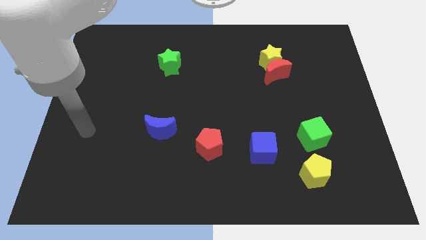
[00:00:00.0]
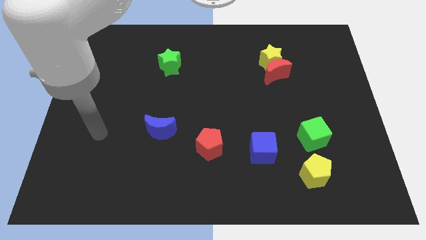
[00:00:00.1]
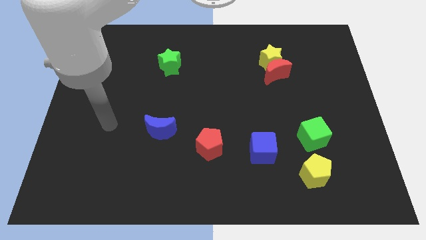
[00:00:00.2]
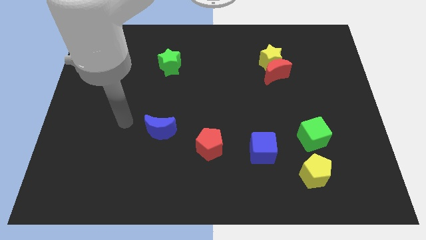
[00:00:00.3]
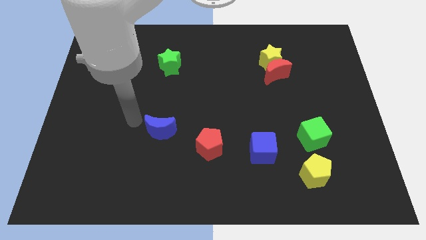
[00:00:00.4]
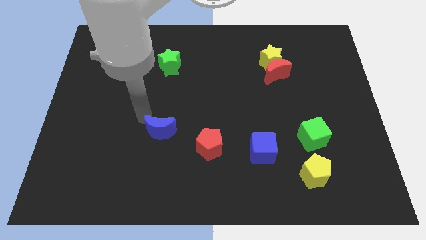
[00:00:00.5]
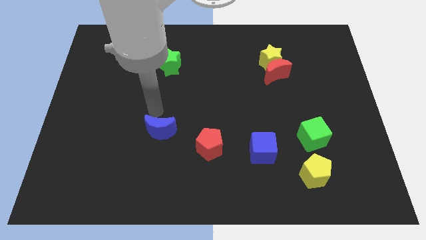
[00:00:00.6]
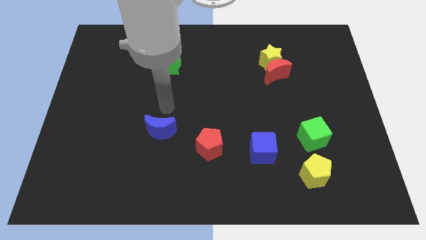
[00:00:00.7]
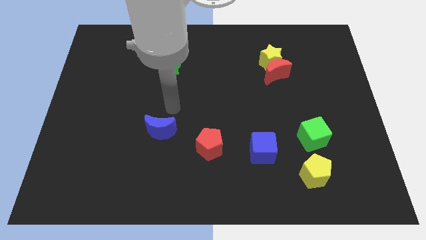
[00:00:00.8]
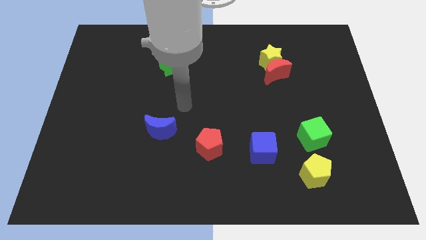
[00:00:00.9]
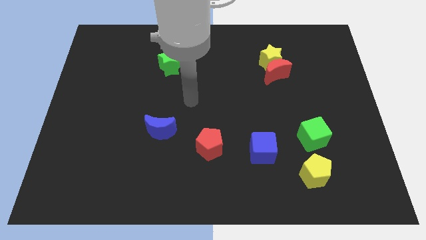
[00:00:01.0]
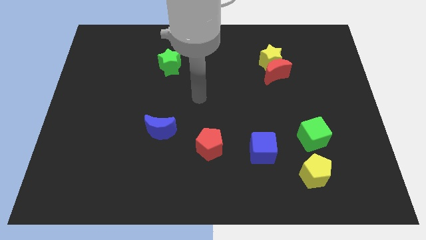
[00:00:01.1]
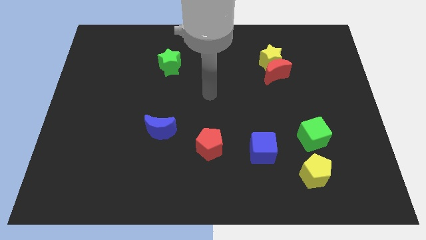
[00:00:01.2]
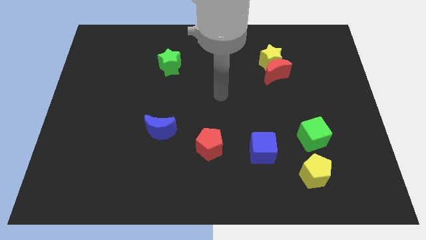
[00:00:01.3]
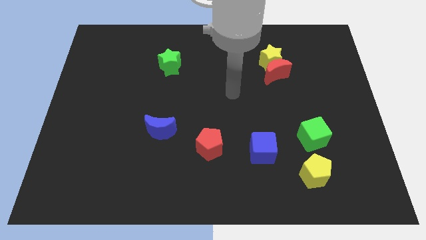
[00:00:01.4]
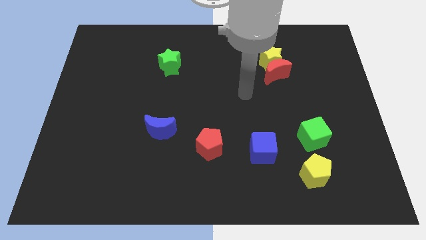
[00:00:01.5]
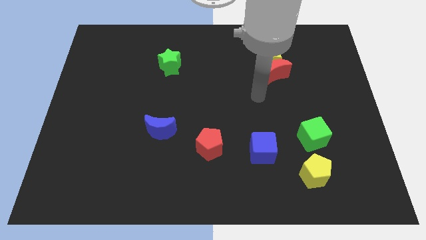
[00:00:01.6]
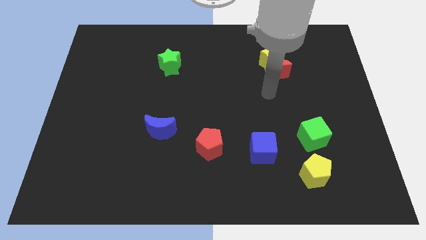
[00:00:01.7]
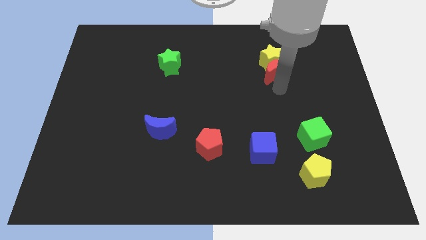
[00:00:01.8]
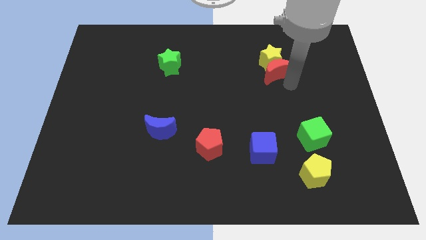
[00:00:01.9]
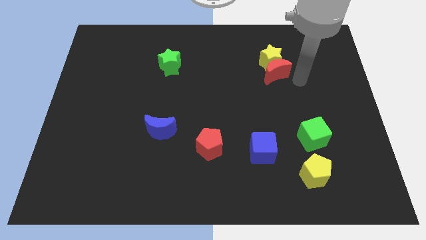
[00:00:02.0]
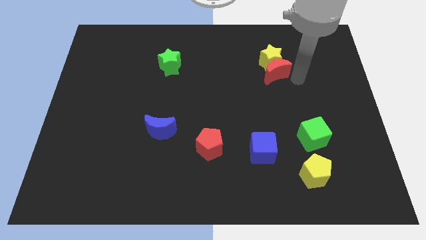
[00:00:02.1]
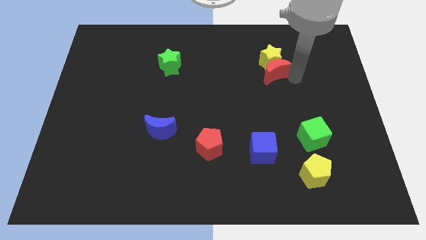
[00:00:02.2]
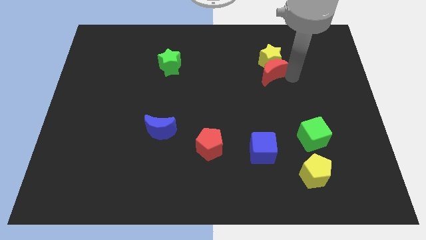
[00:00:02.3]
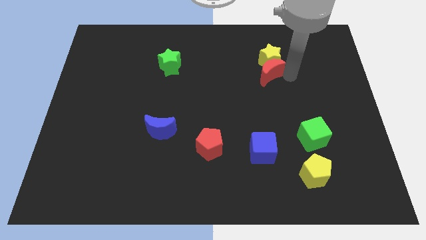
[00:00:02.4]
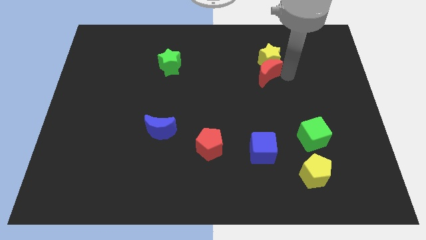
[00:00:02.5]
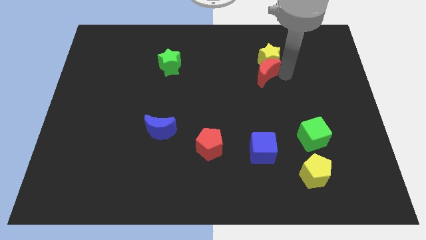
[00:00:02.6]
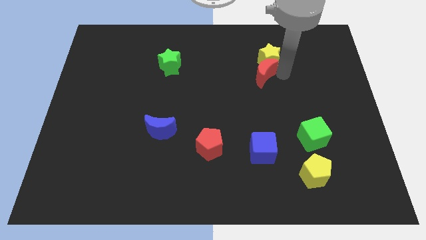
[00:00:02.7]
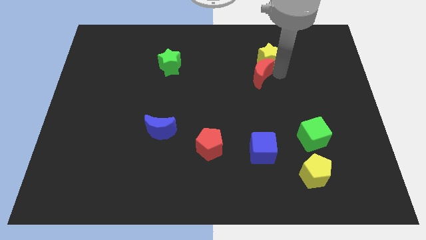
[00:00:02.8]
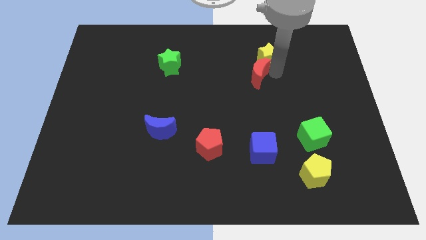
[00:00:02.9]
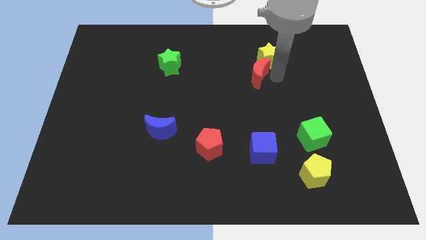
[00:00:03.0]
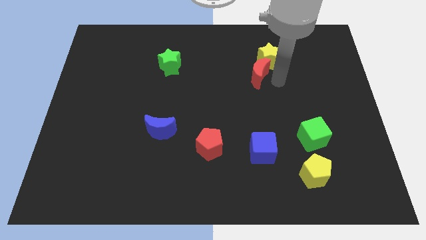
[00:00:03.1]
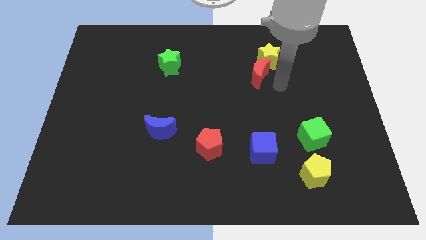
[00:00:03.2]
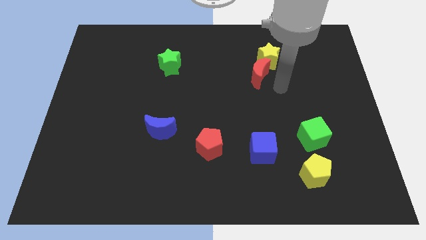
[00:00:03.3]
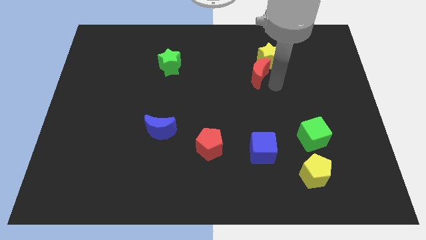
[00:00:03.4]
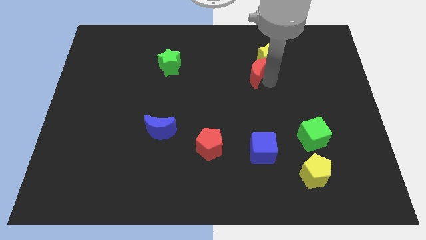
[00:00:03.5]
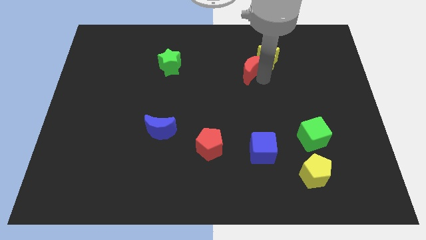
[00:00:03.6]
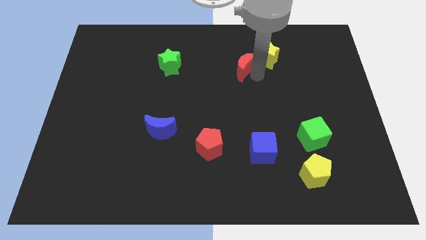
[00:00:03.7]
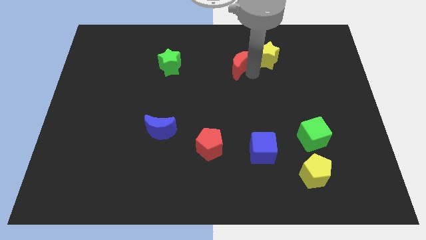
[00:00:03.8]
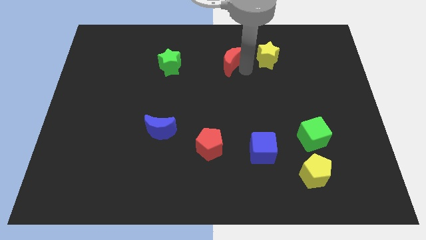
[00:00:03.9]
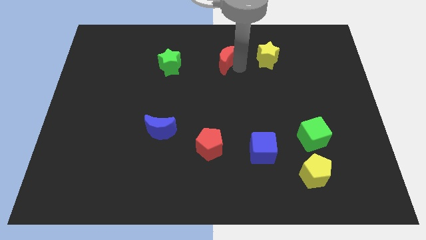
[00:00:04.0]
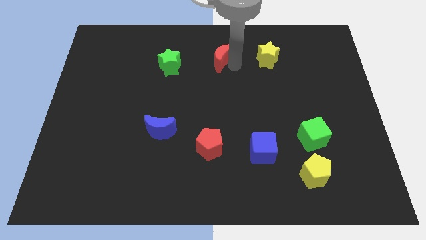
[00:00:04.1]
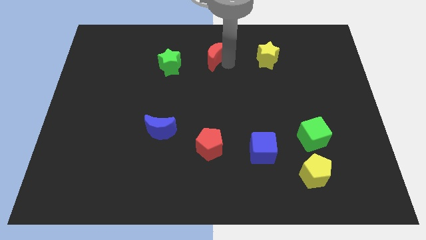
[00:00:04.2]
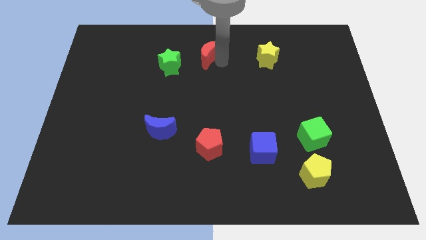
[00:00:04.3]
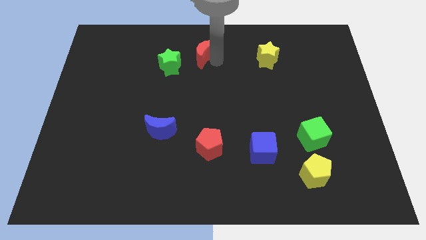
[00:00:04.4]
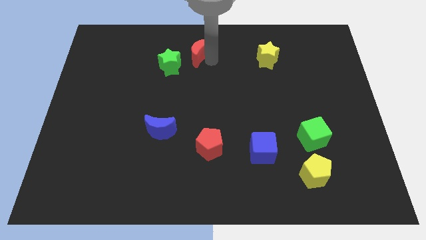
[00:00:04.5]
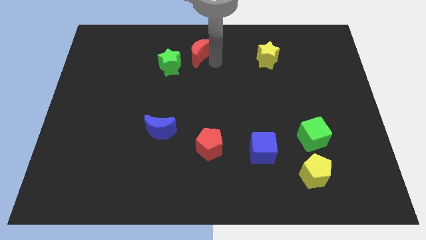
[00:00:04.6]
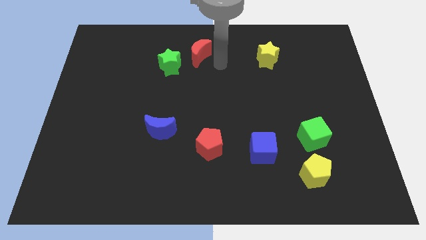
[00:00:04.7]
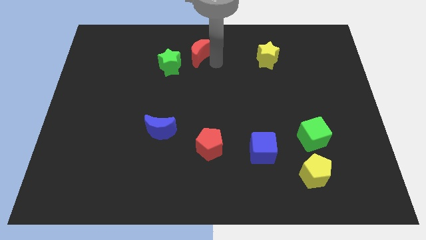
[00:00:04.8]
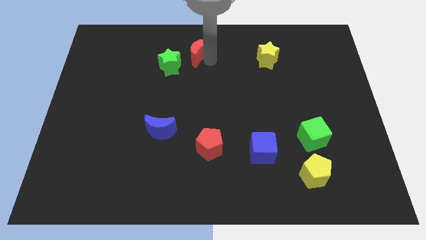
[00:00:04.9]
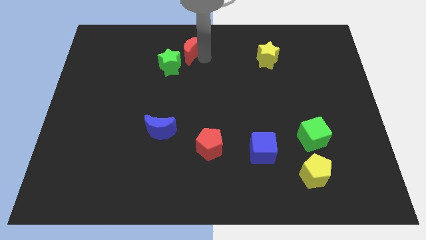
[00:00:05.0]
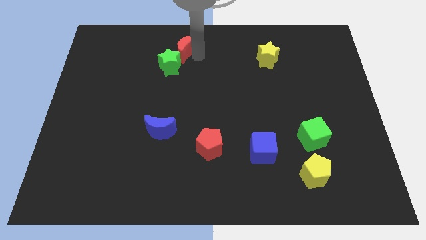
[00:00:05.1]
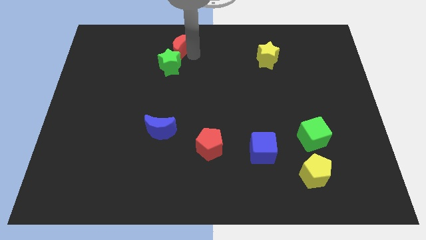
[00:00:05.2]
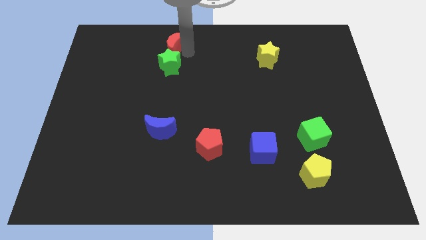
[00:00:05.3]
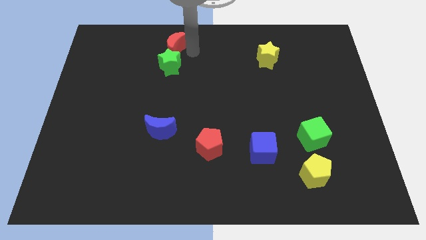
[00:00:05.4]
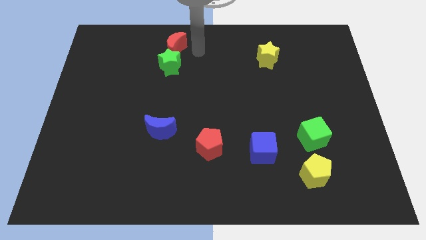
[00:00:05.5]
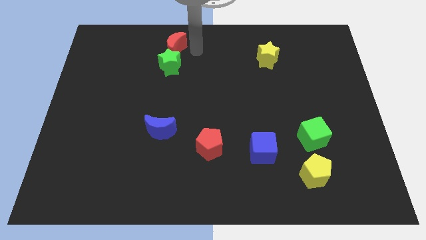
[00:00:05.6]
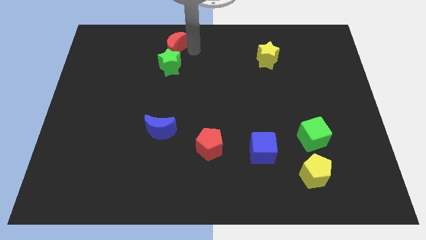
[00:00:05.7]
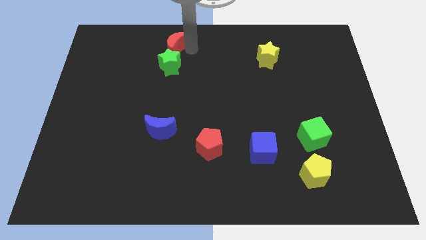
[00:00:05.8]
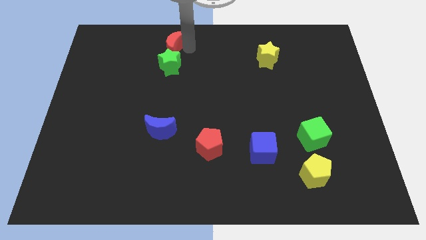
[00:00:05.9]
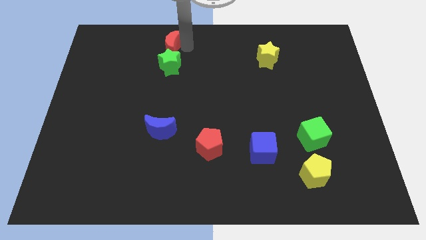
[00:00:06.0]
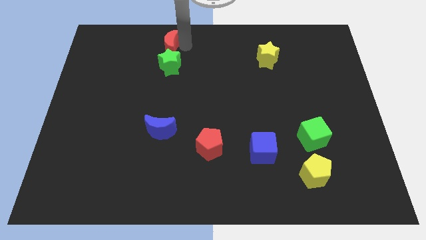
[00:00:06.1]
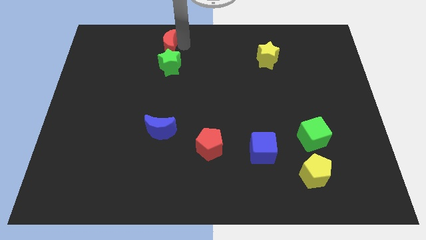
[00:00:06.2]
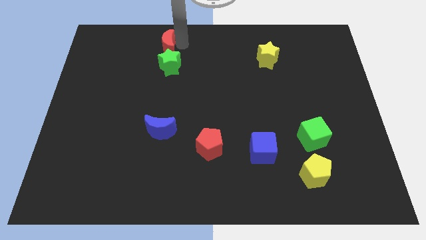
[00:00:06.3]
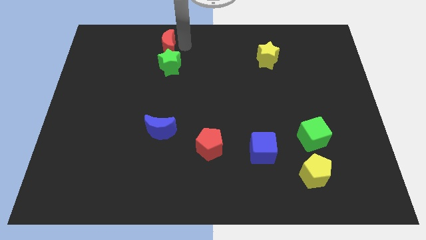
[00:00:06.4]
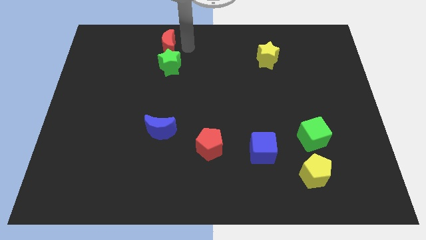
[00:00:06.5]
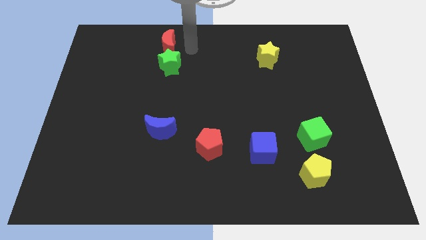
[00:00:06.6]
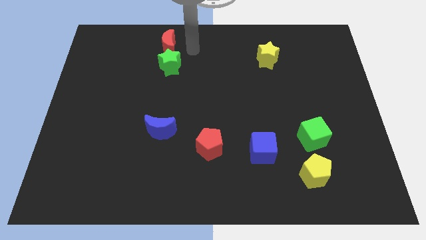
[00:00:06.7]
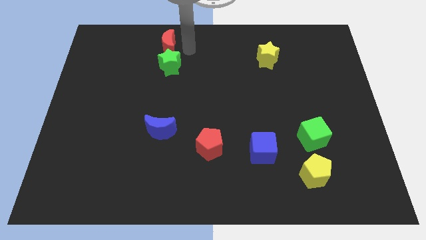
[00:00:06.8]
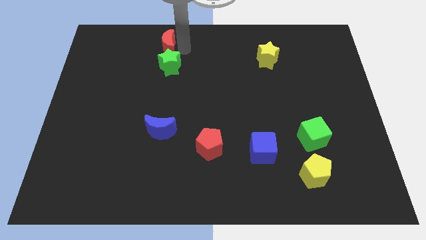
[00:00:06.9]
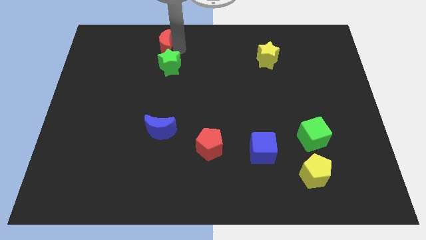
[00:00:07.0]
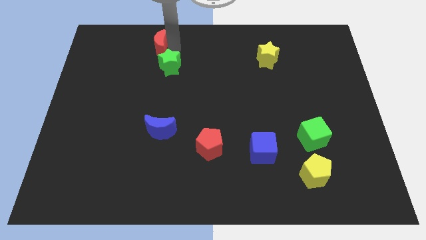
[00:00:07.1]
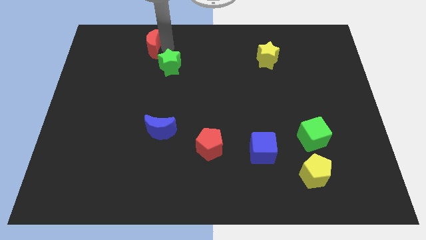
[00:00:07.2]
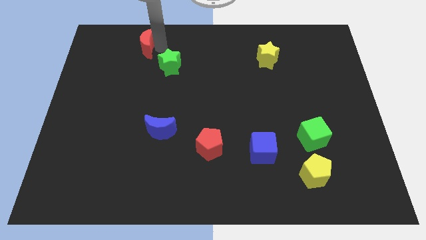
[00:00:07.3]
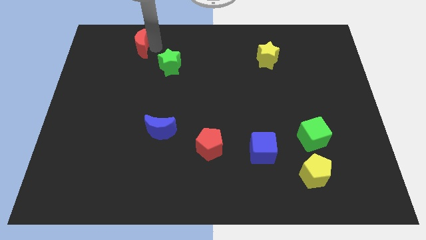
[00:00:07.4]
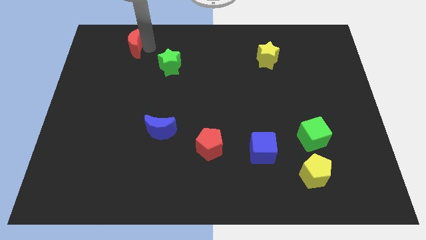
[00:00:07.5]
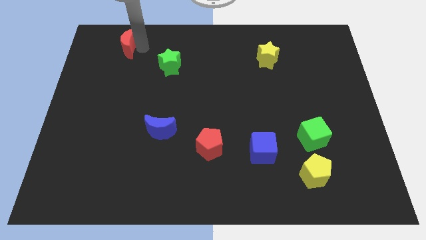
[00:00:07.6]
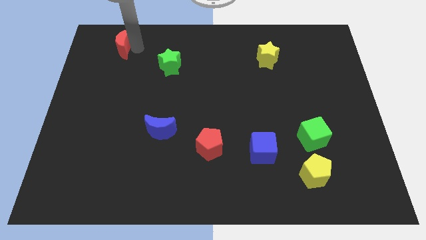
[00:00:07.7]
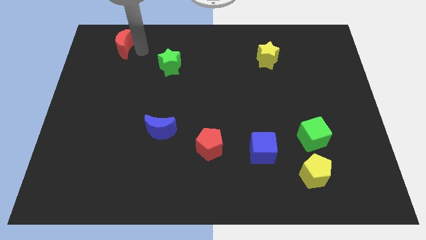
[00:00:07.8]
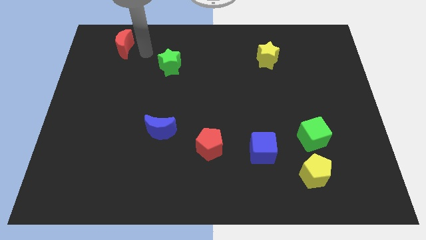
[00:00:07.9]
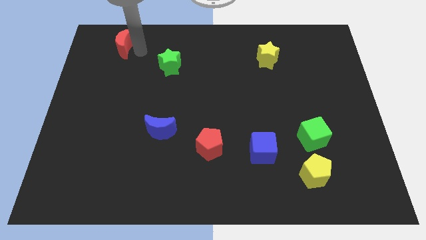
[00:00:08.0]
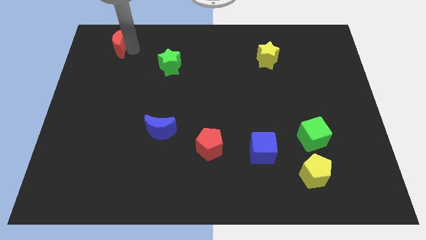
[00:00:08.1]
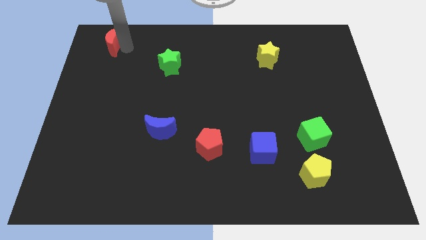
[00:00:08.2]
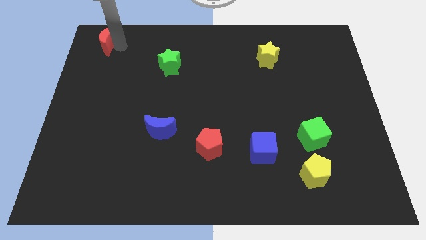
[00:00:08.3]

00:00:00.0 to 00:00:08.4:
put the red moon to the top left
